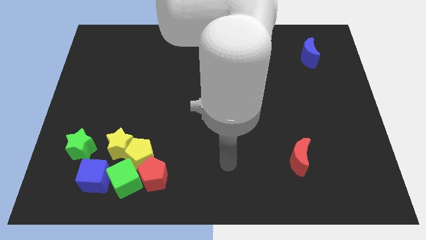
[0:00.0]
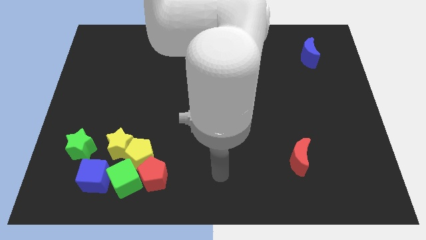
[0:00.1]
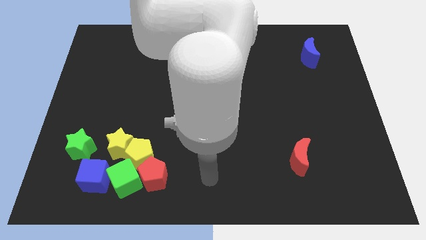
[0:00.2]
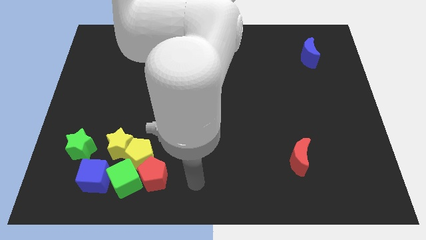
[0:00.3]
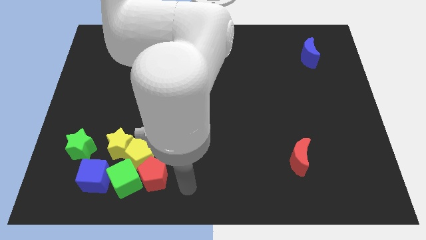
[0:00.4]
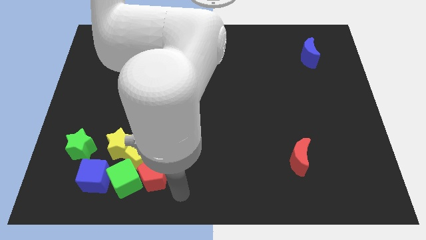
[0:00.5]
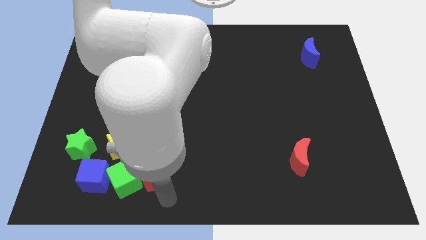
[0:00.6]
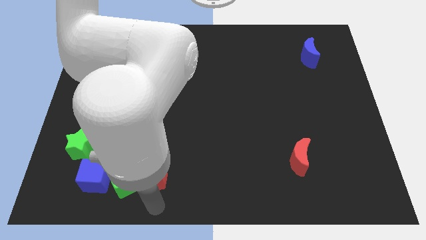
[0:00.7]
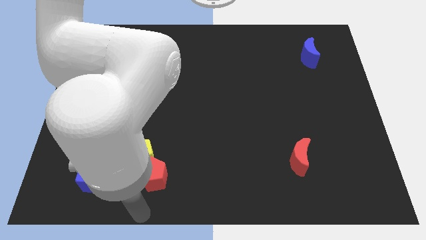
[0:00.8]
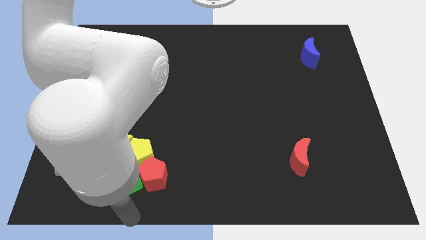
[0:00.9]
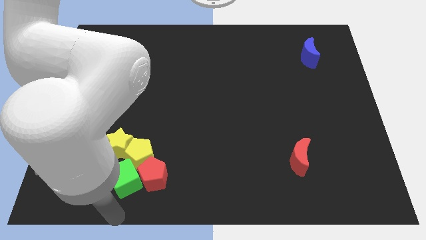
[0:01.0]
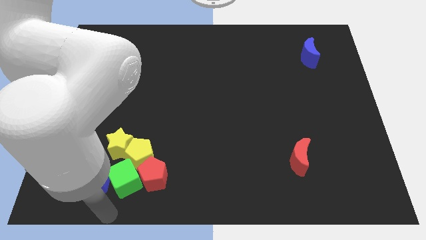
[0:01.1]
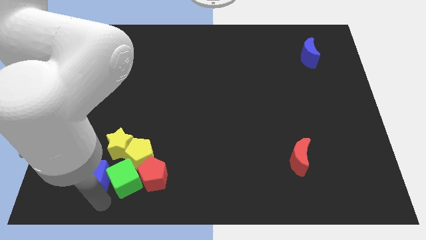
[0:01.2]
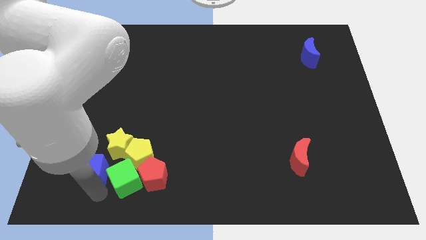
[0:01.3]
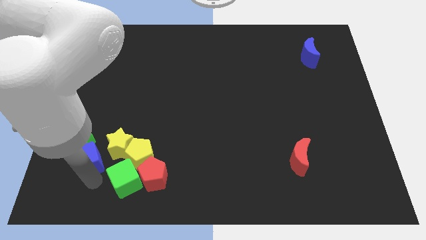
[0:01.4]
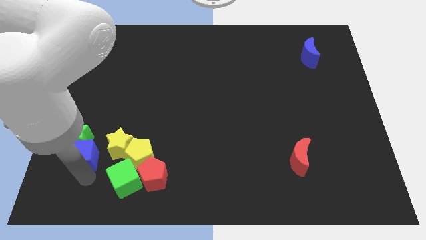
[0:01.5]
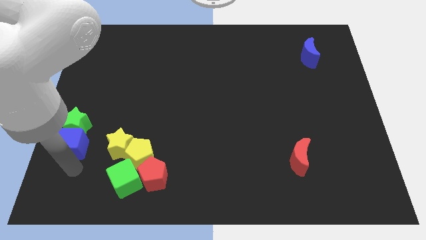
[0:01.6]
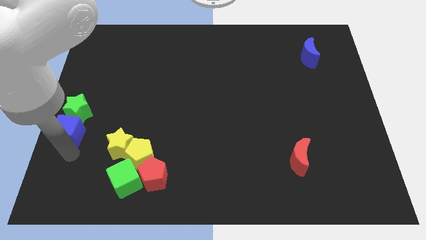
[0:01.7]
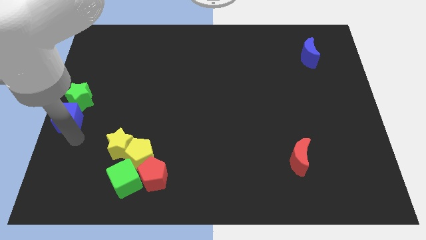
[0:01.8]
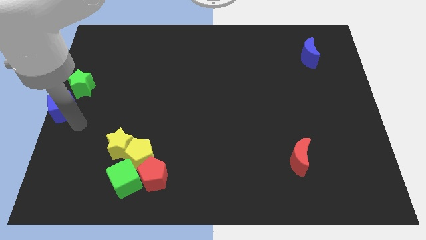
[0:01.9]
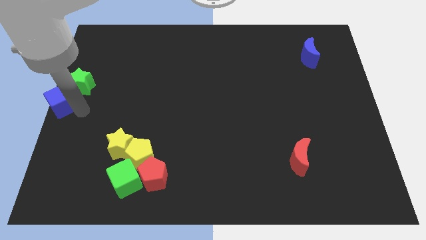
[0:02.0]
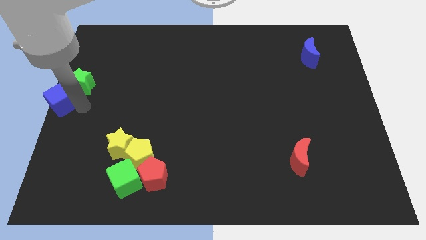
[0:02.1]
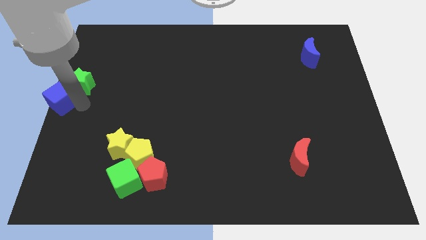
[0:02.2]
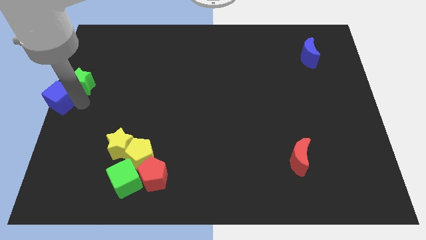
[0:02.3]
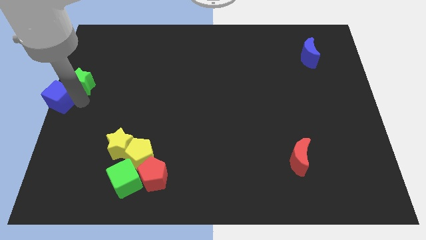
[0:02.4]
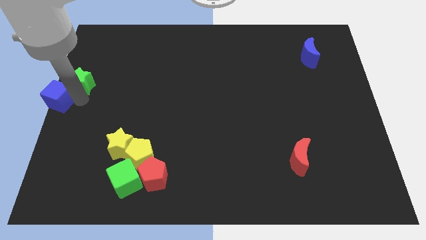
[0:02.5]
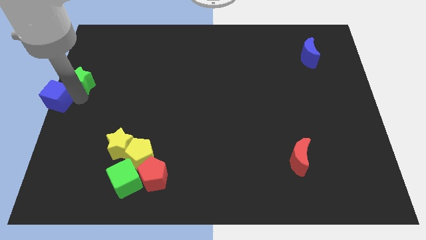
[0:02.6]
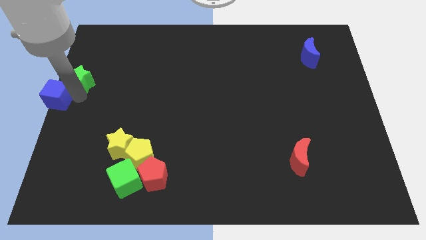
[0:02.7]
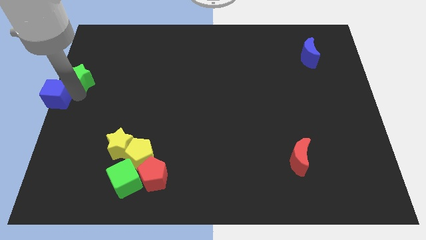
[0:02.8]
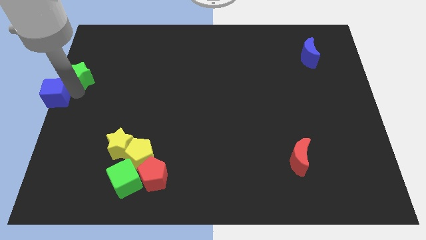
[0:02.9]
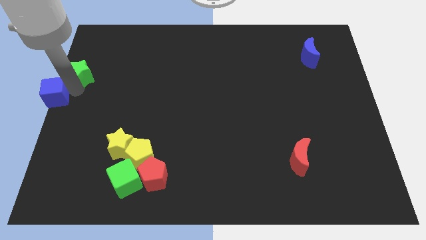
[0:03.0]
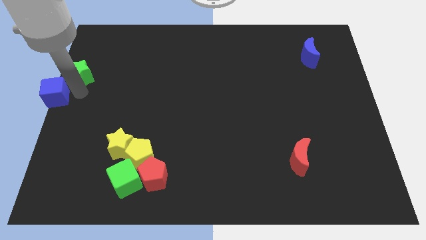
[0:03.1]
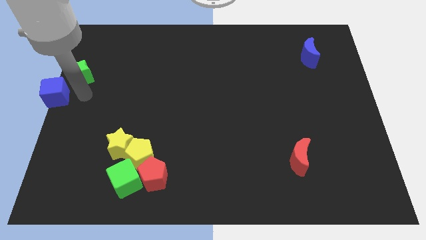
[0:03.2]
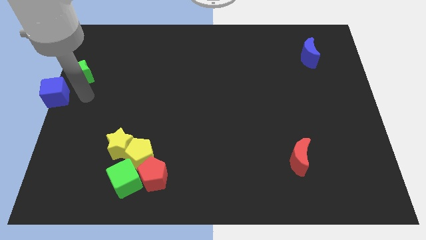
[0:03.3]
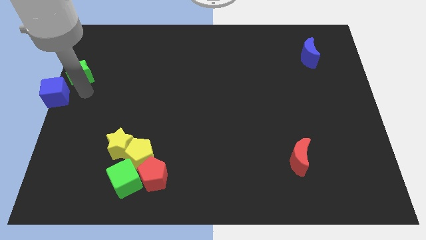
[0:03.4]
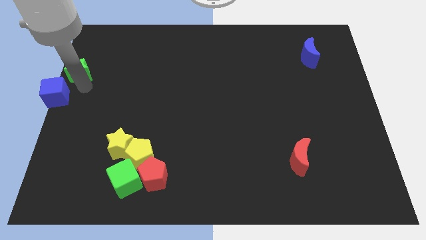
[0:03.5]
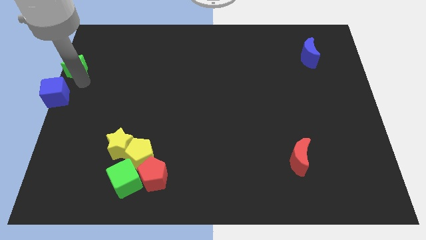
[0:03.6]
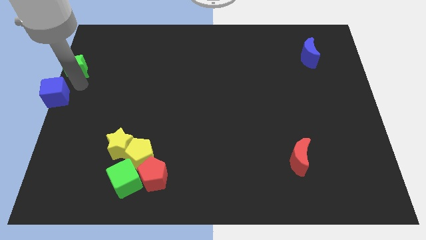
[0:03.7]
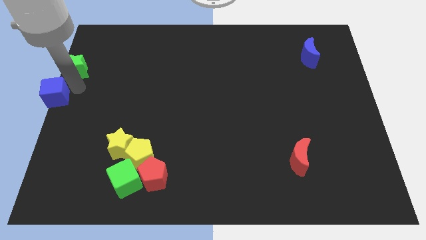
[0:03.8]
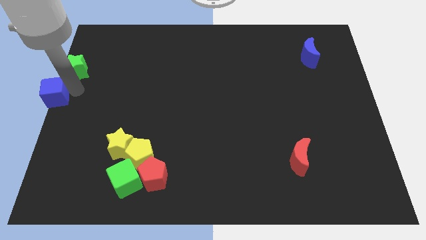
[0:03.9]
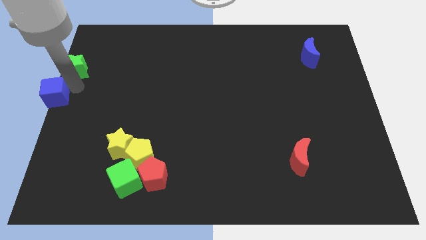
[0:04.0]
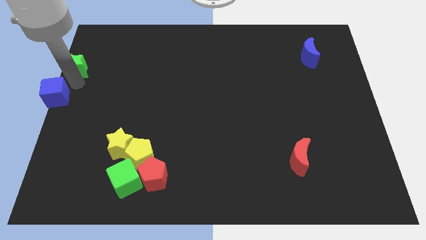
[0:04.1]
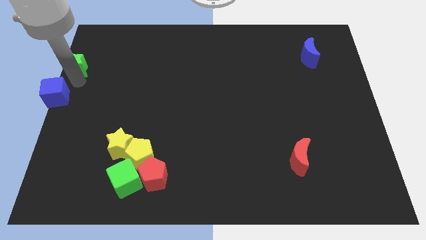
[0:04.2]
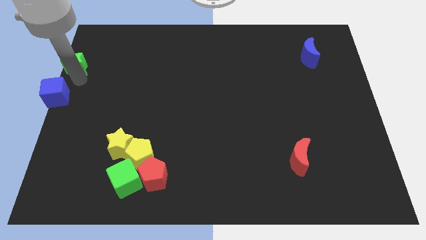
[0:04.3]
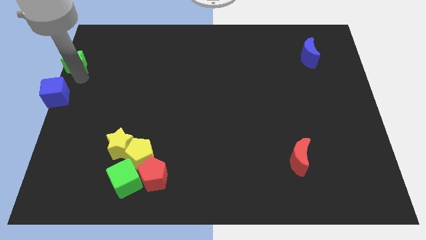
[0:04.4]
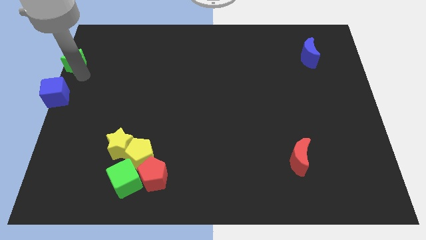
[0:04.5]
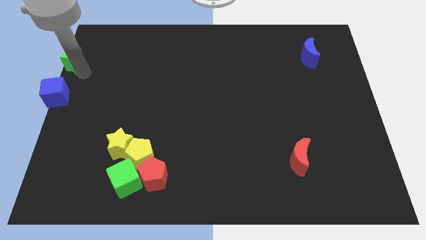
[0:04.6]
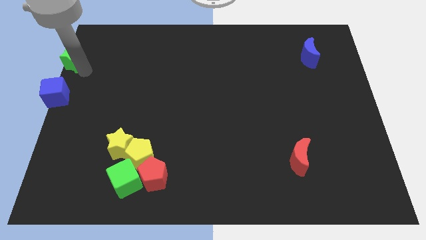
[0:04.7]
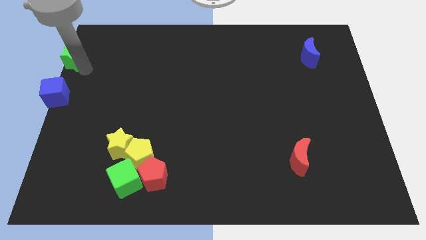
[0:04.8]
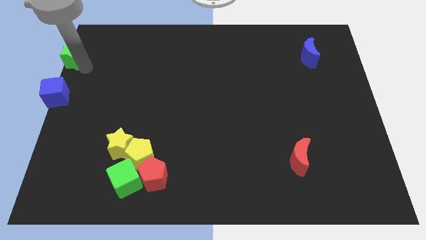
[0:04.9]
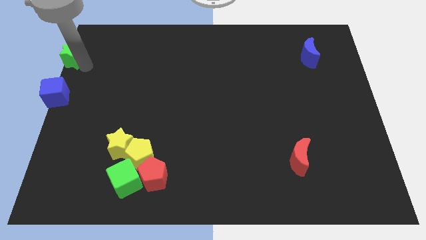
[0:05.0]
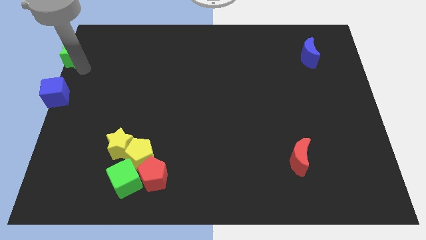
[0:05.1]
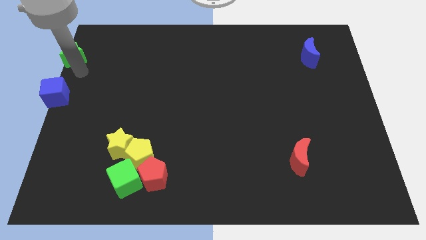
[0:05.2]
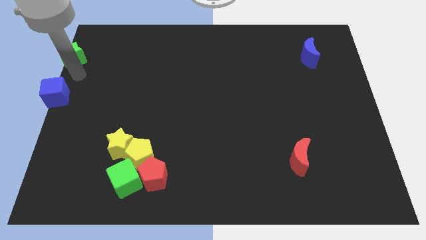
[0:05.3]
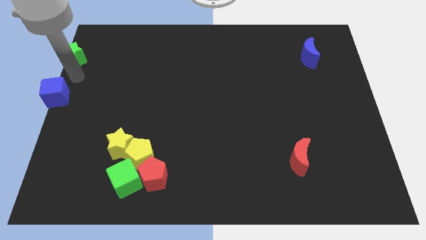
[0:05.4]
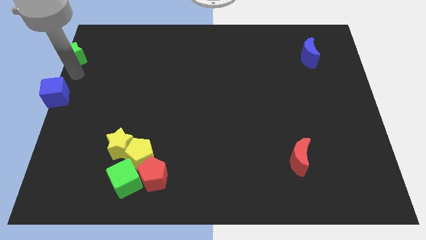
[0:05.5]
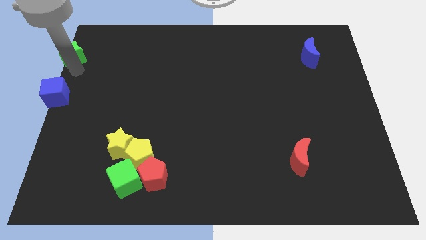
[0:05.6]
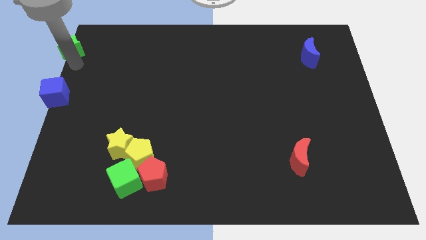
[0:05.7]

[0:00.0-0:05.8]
push the green star to the upper left corner
